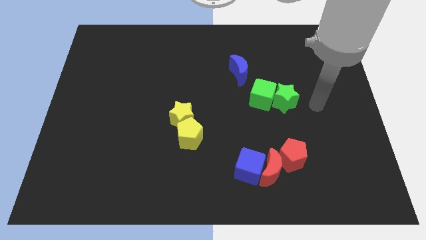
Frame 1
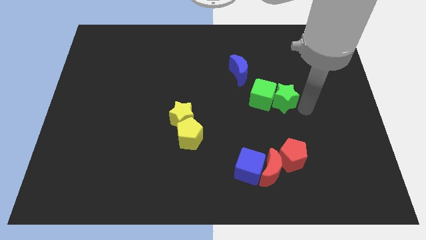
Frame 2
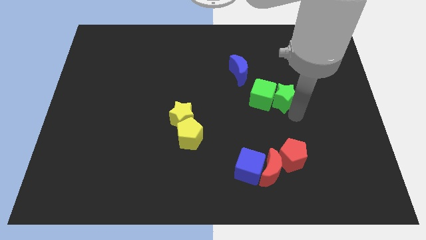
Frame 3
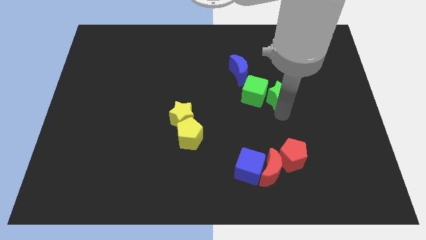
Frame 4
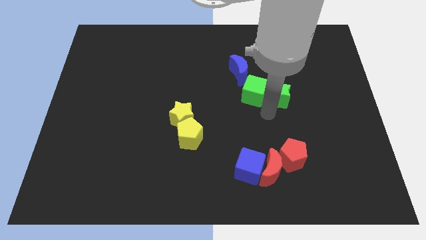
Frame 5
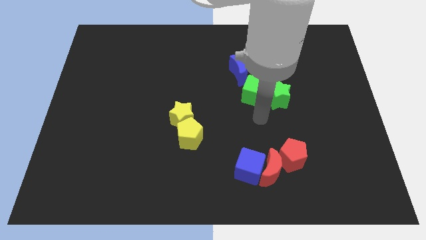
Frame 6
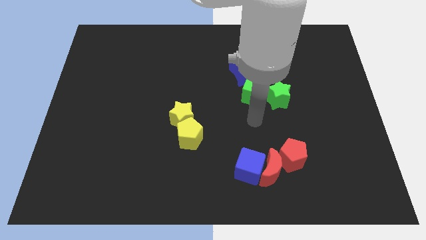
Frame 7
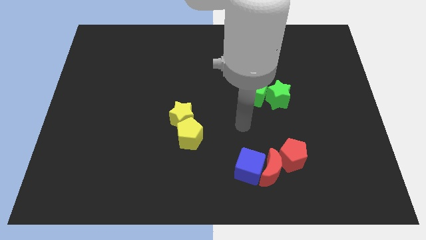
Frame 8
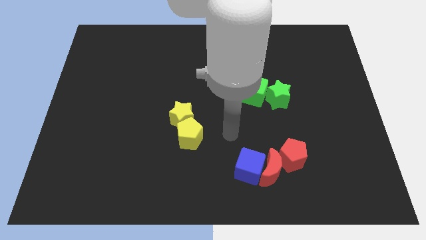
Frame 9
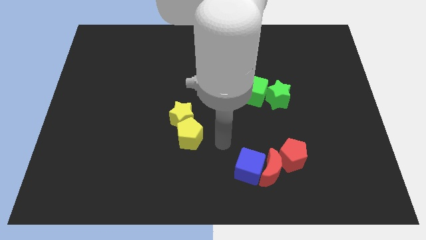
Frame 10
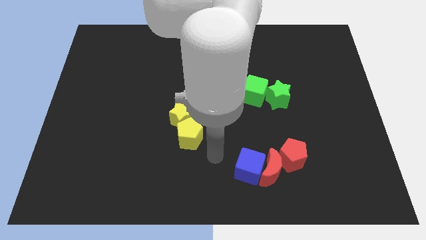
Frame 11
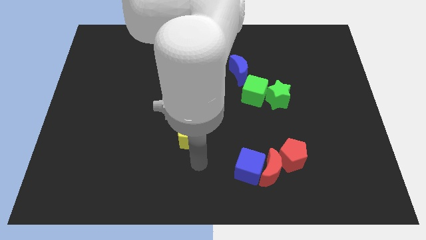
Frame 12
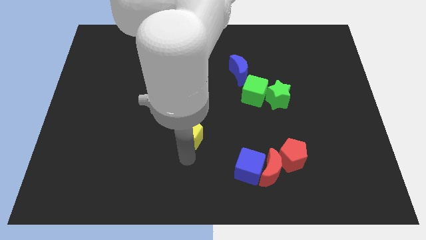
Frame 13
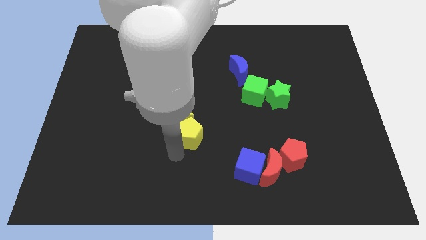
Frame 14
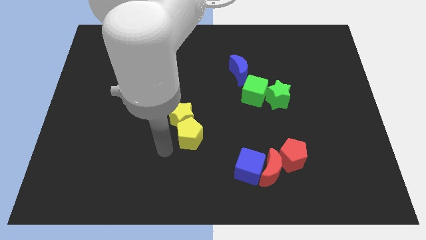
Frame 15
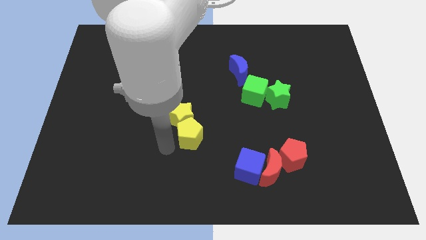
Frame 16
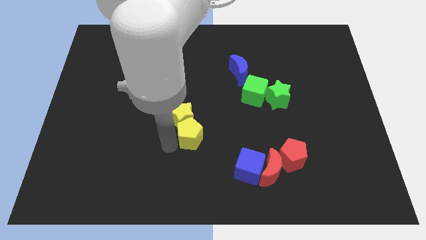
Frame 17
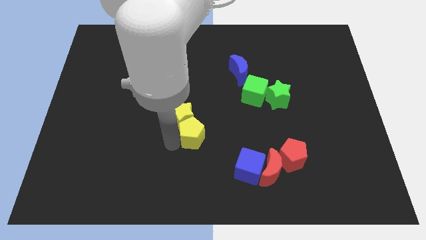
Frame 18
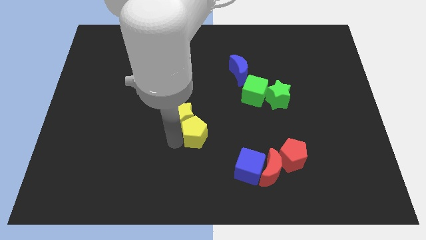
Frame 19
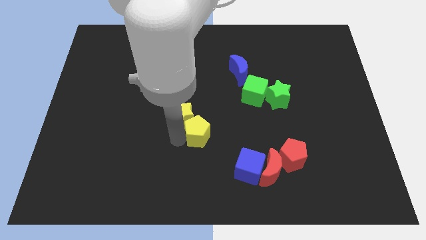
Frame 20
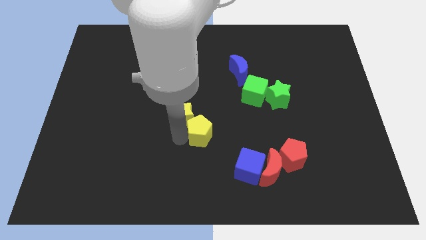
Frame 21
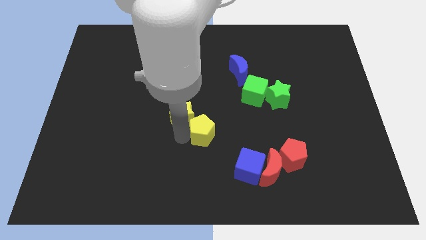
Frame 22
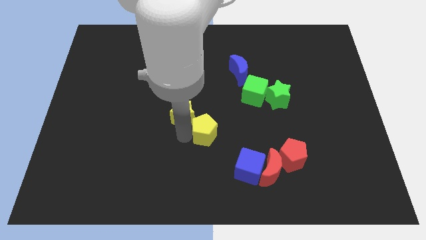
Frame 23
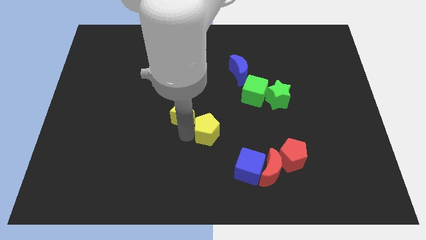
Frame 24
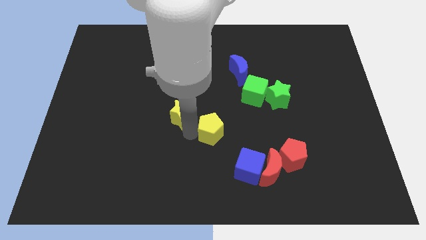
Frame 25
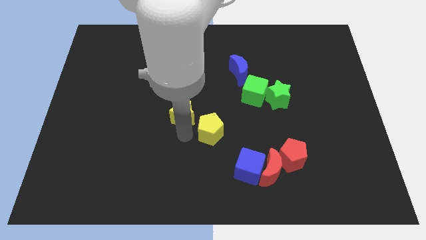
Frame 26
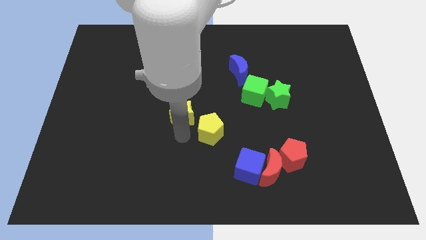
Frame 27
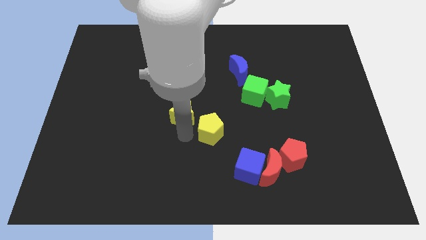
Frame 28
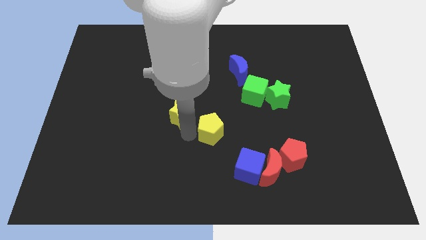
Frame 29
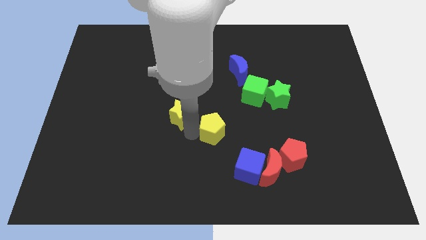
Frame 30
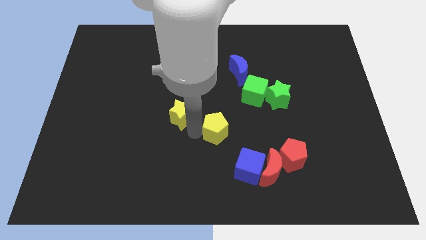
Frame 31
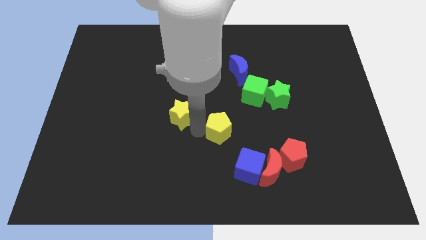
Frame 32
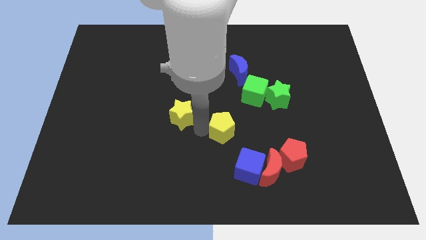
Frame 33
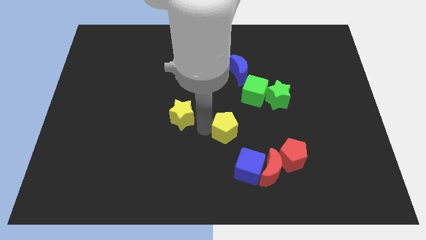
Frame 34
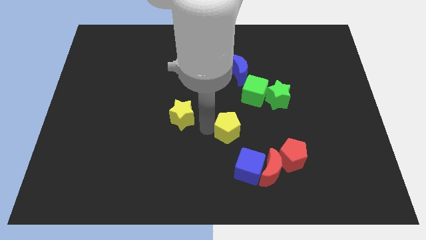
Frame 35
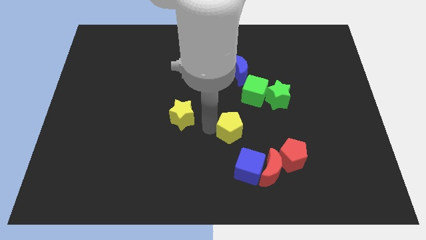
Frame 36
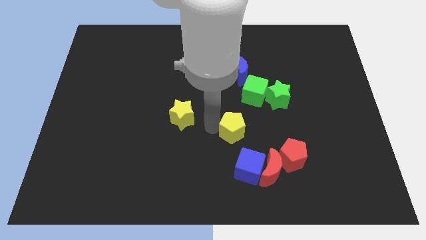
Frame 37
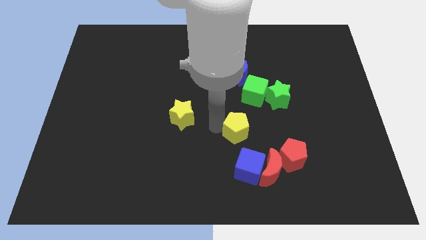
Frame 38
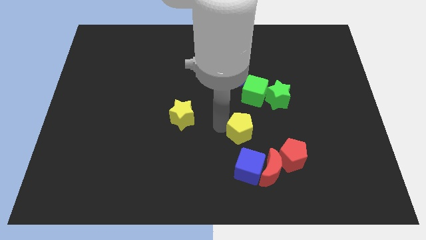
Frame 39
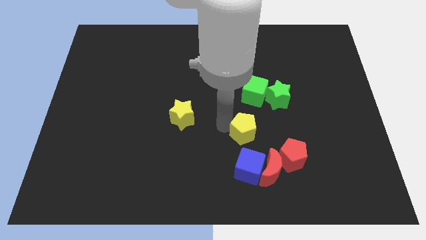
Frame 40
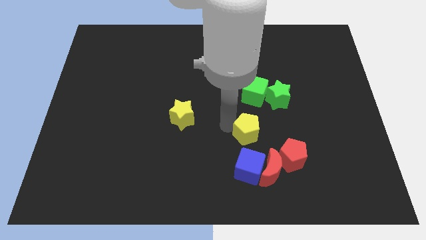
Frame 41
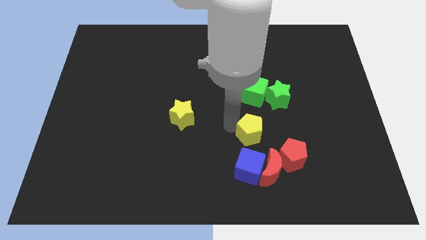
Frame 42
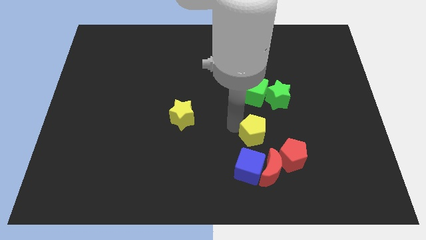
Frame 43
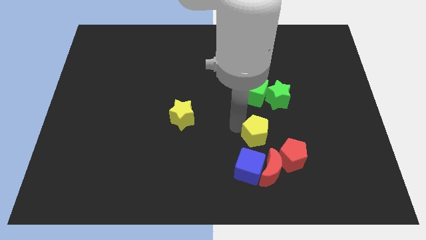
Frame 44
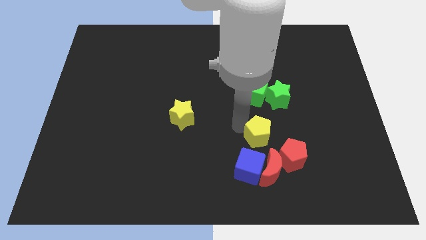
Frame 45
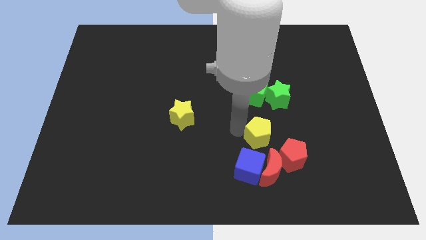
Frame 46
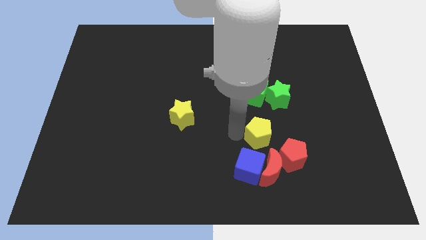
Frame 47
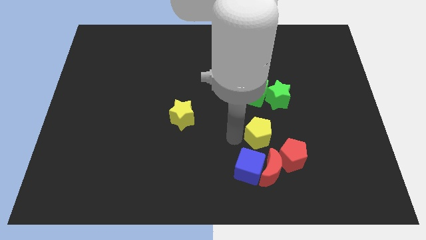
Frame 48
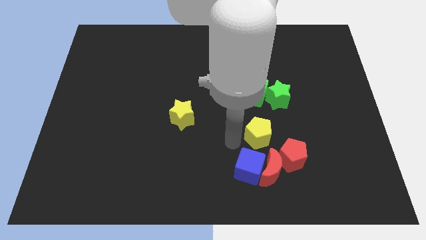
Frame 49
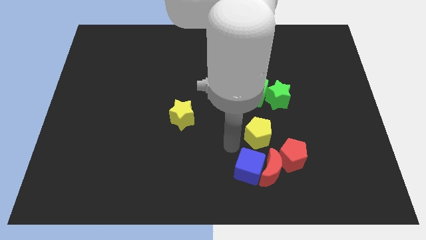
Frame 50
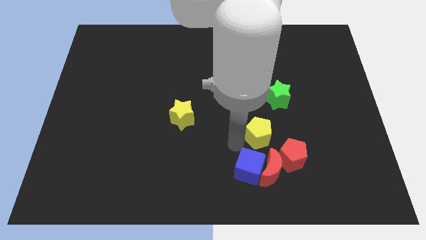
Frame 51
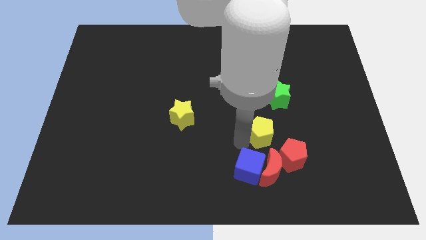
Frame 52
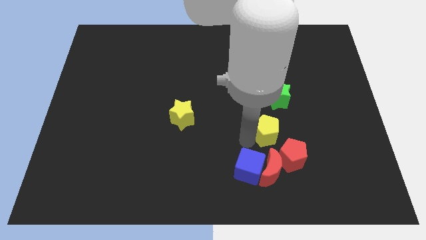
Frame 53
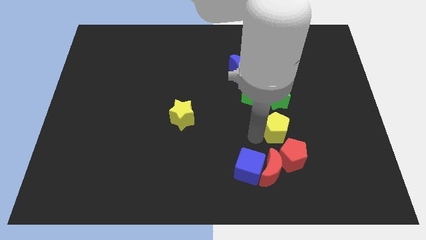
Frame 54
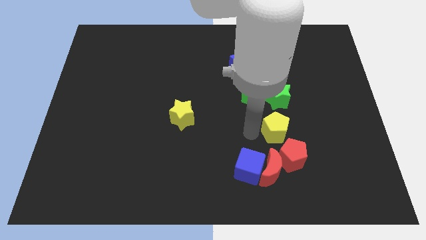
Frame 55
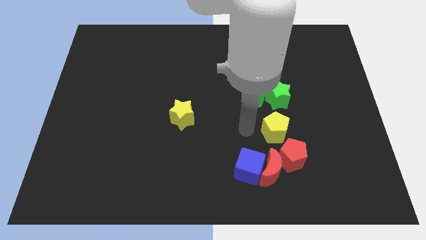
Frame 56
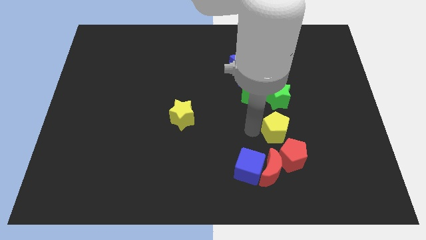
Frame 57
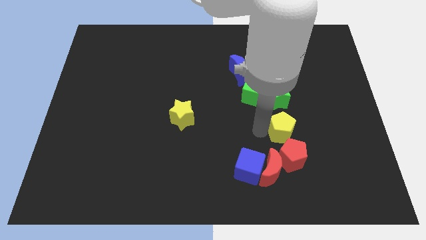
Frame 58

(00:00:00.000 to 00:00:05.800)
move the yellow pentagon to the right

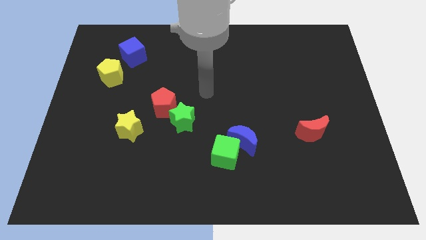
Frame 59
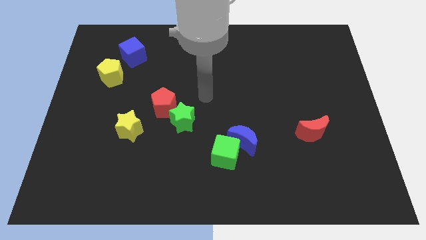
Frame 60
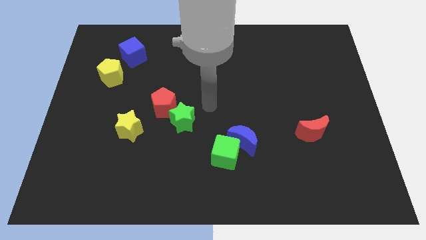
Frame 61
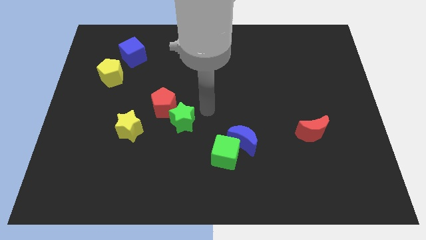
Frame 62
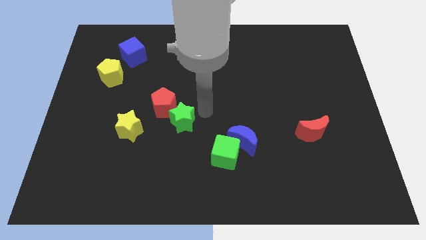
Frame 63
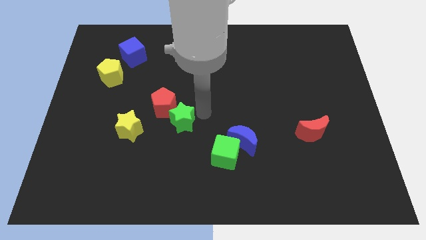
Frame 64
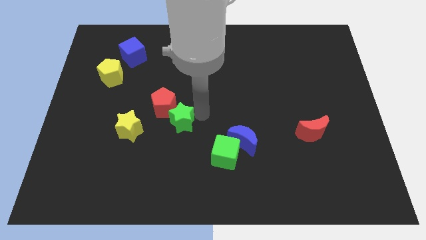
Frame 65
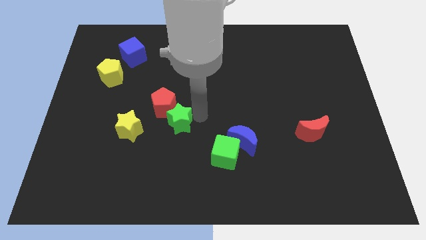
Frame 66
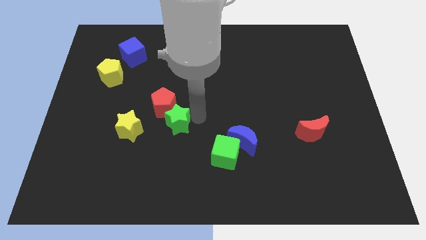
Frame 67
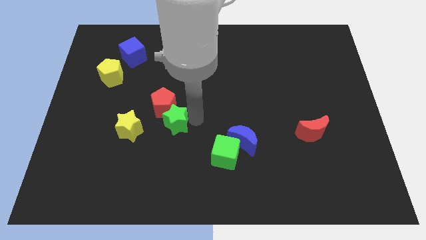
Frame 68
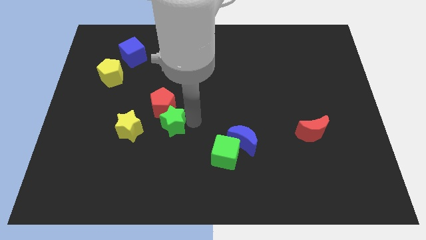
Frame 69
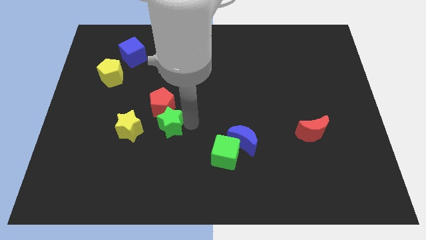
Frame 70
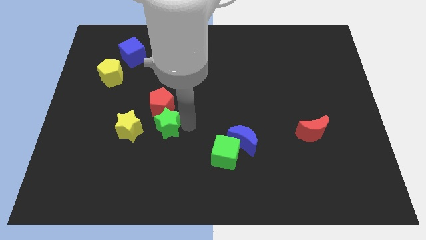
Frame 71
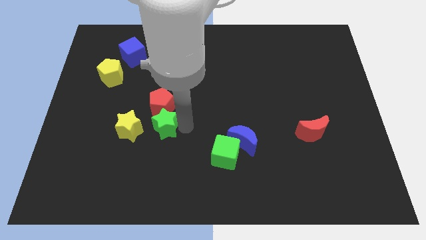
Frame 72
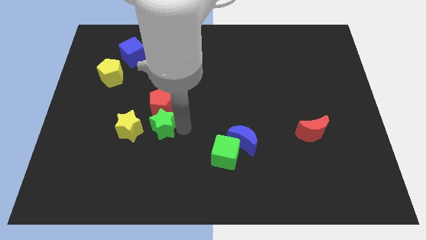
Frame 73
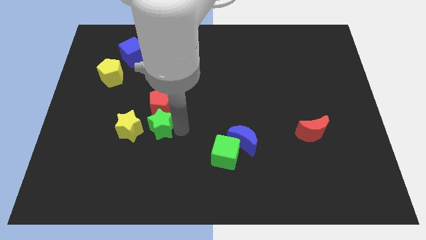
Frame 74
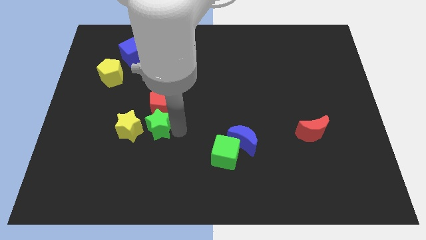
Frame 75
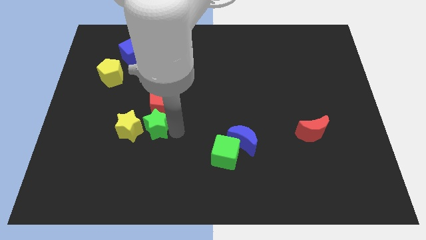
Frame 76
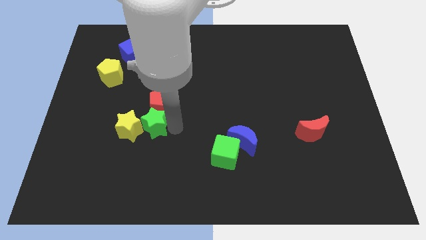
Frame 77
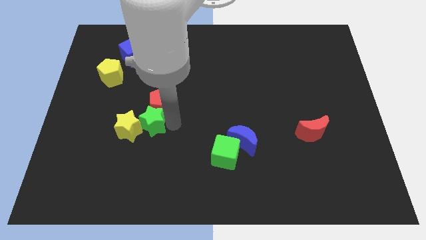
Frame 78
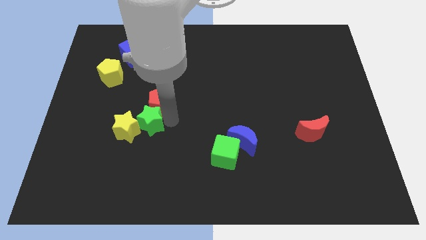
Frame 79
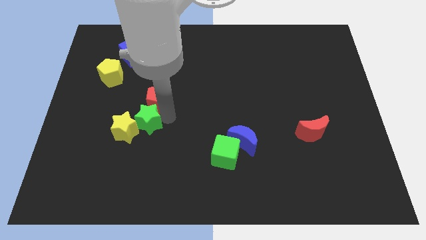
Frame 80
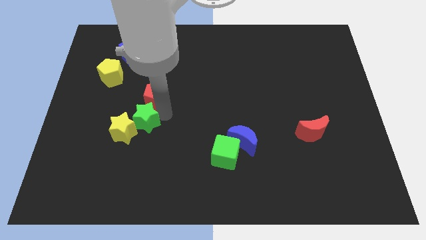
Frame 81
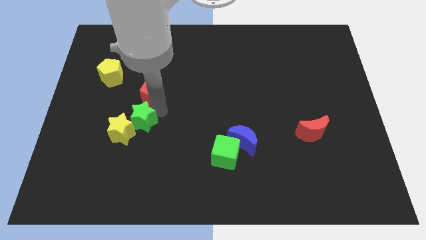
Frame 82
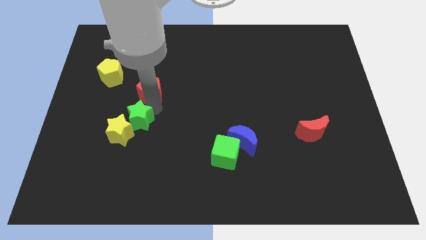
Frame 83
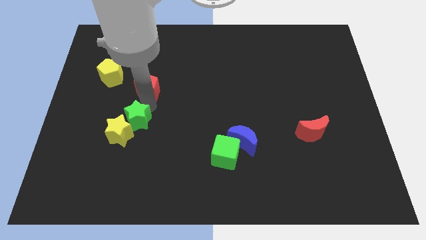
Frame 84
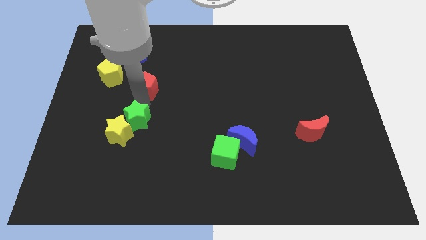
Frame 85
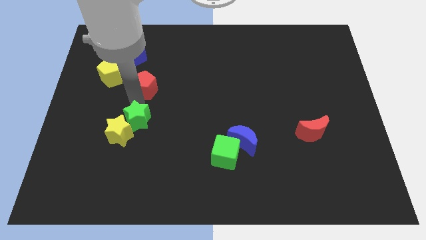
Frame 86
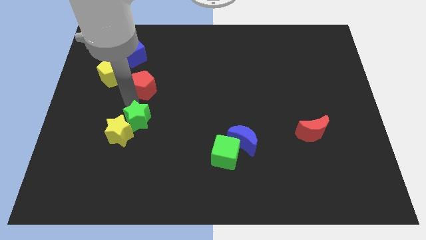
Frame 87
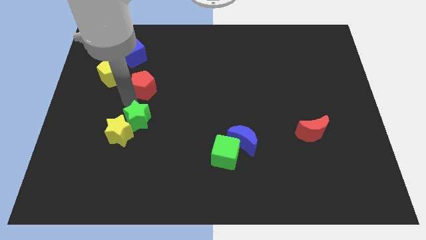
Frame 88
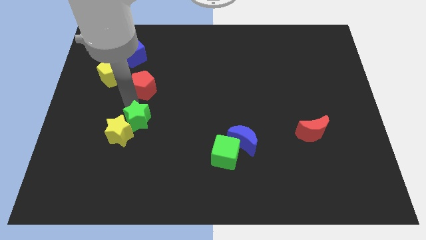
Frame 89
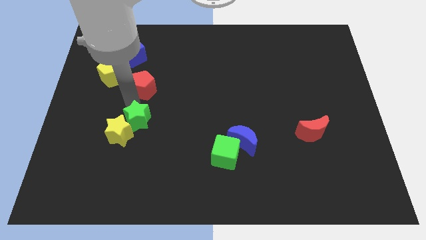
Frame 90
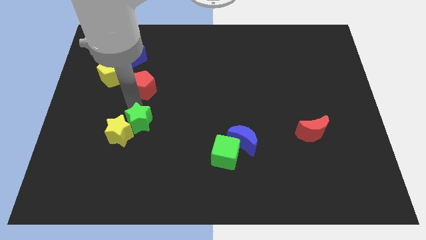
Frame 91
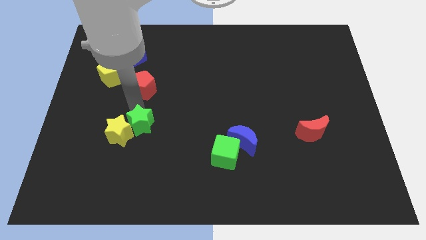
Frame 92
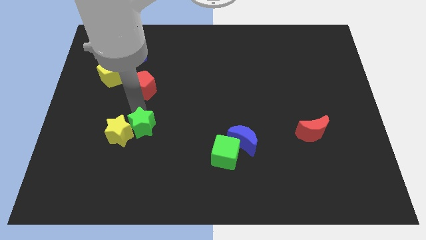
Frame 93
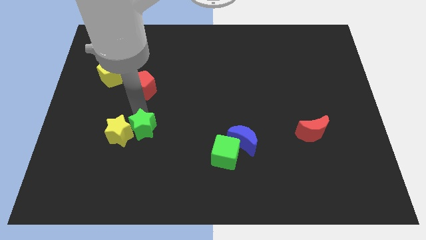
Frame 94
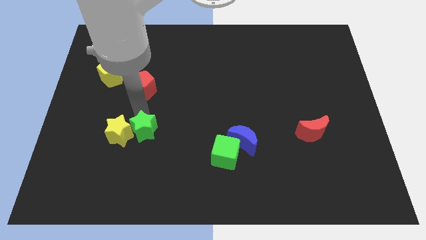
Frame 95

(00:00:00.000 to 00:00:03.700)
slightly push the green star downwards and then to the left
